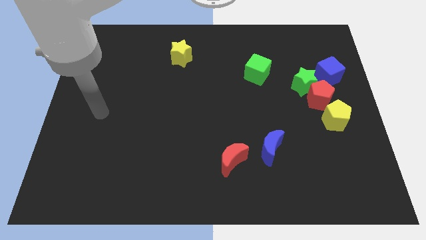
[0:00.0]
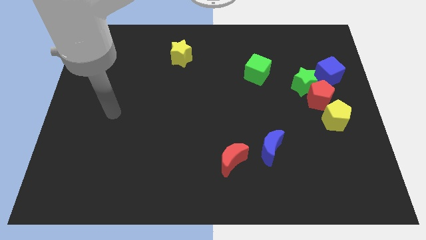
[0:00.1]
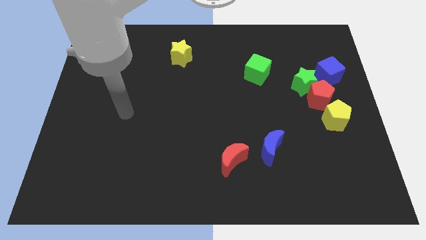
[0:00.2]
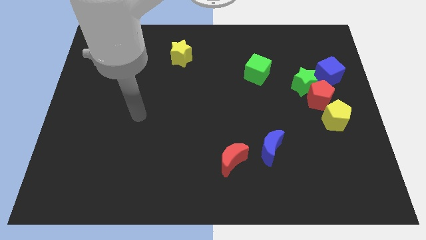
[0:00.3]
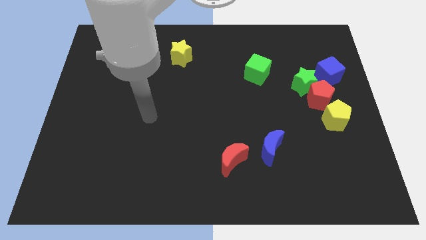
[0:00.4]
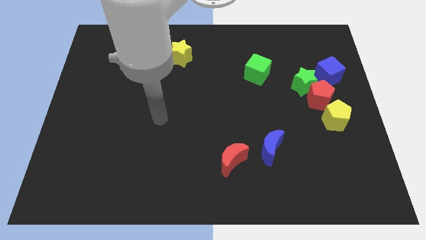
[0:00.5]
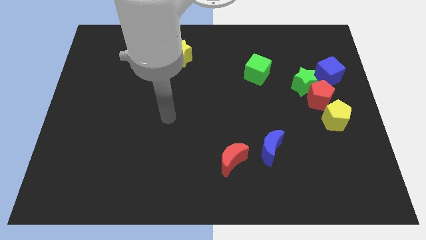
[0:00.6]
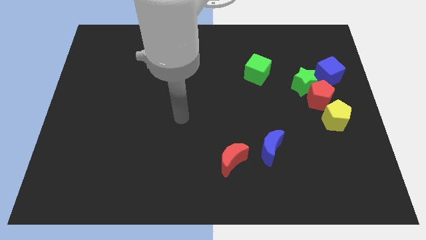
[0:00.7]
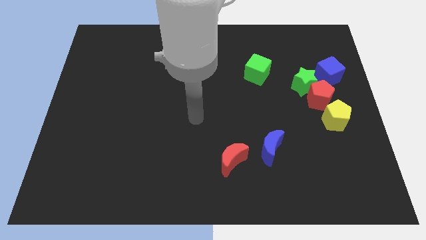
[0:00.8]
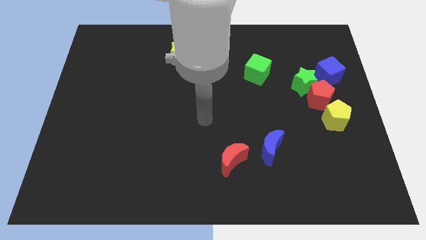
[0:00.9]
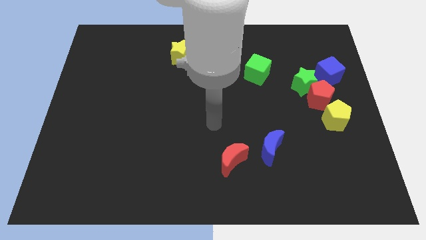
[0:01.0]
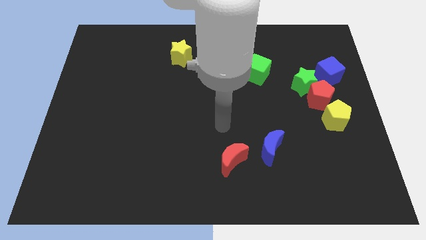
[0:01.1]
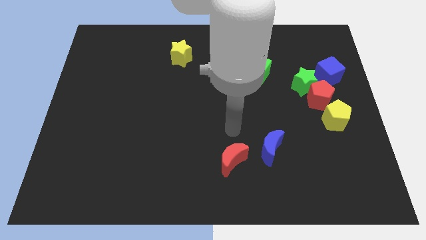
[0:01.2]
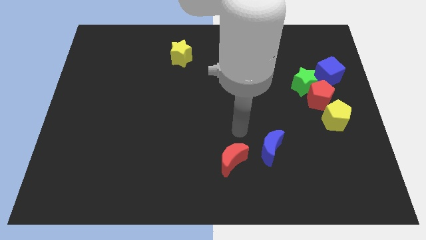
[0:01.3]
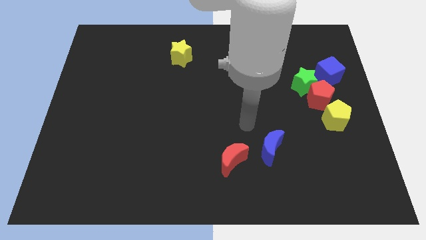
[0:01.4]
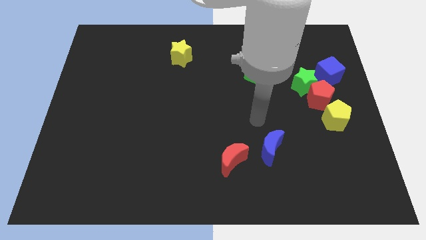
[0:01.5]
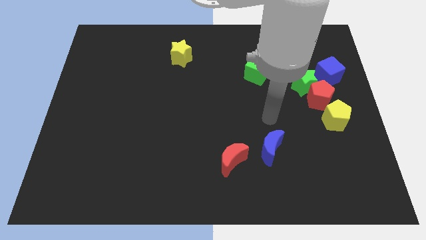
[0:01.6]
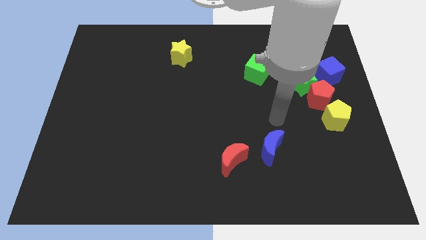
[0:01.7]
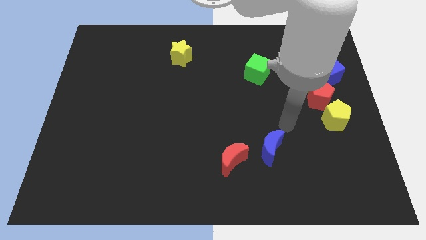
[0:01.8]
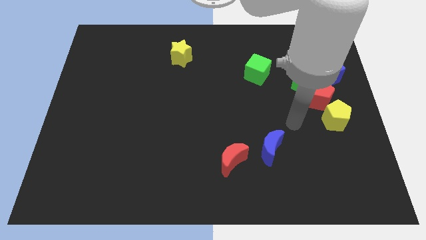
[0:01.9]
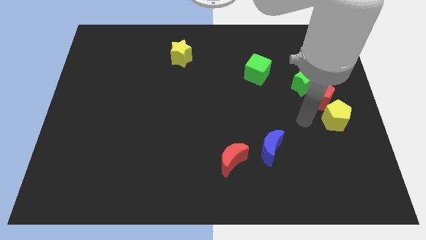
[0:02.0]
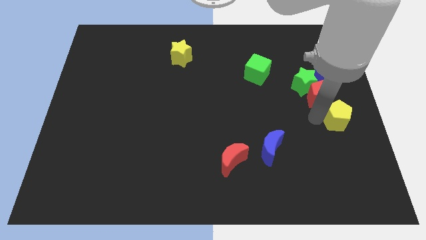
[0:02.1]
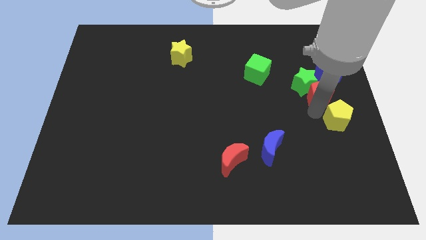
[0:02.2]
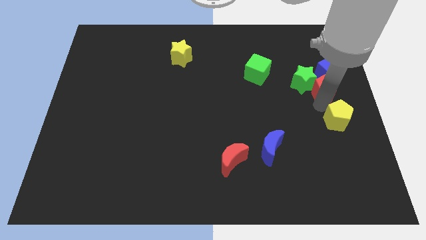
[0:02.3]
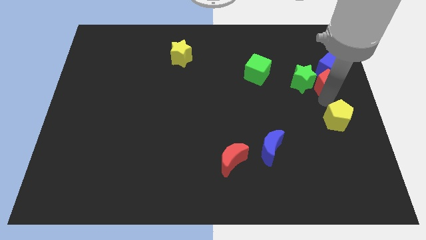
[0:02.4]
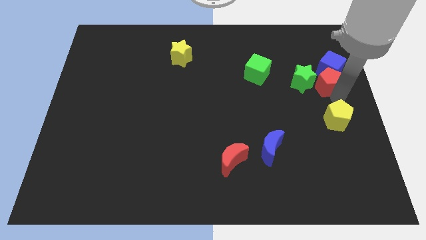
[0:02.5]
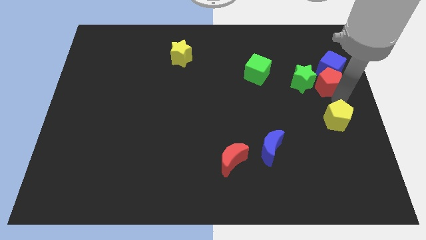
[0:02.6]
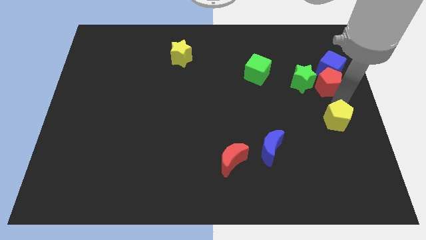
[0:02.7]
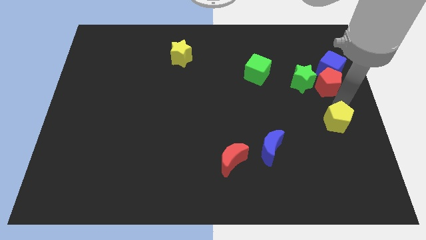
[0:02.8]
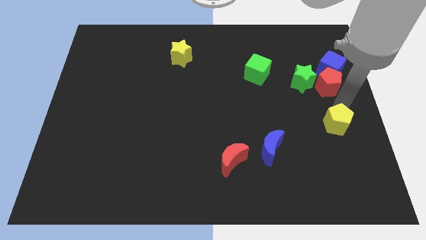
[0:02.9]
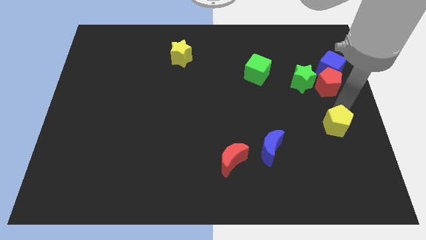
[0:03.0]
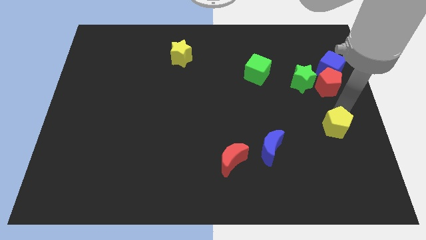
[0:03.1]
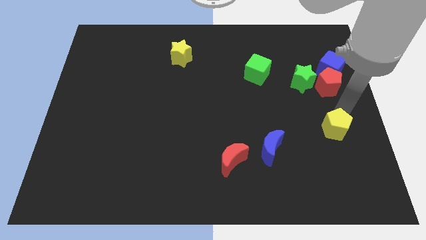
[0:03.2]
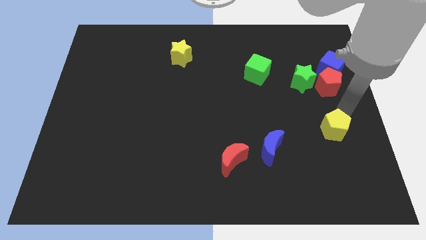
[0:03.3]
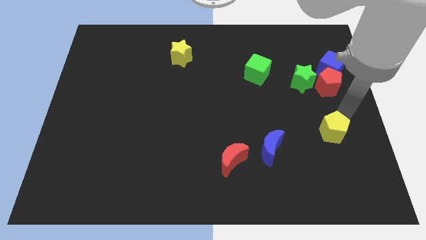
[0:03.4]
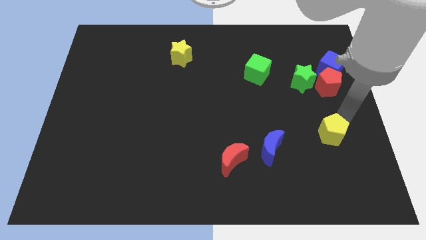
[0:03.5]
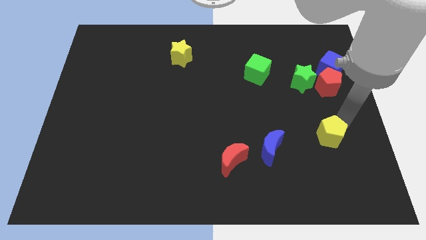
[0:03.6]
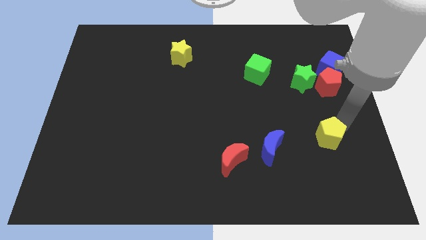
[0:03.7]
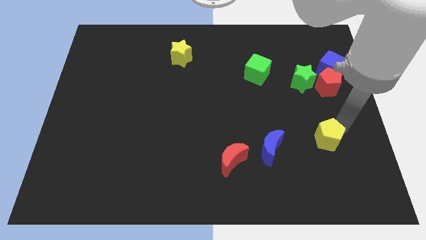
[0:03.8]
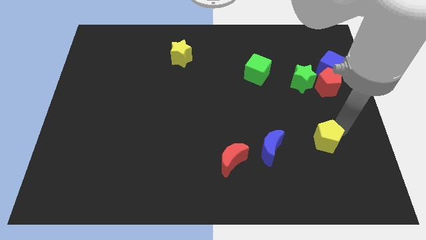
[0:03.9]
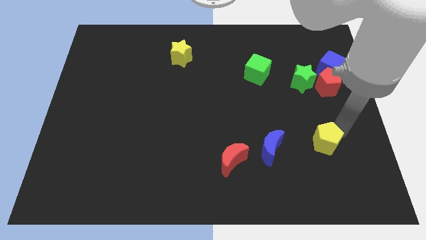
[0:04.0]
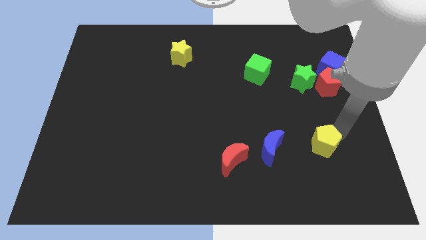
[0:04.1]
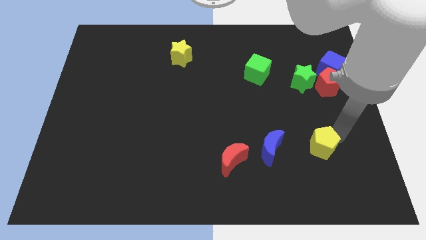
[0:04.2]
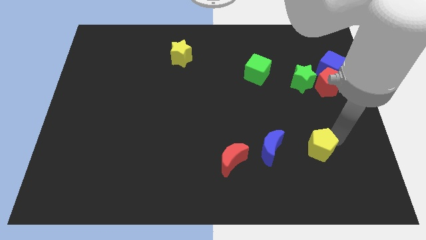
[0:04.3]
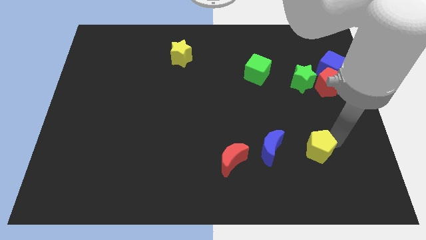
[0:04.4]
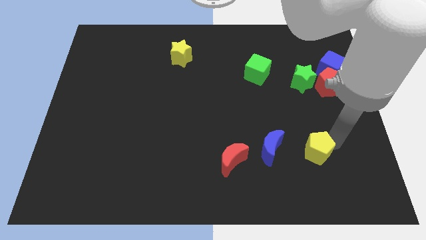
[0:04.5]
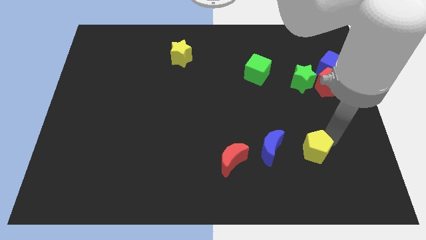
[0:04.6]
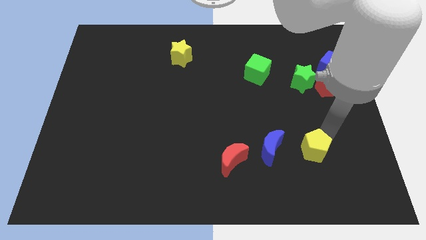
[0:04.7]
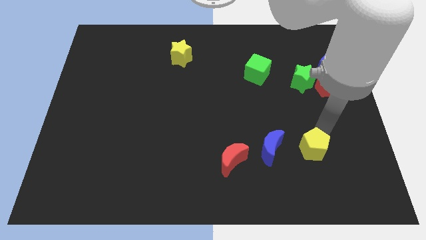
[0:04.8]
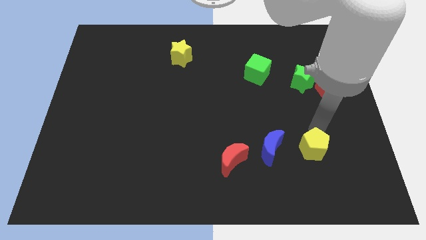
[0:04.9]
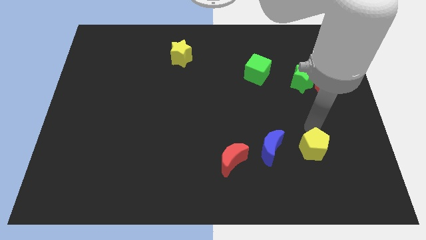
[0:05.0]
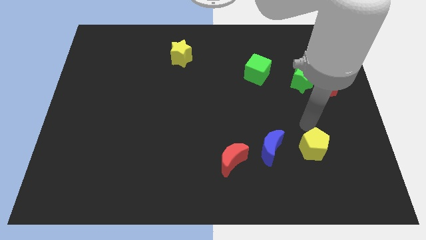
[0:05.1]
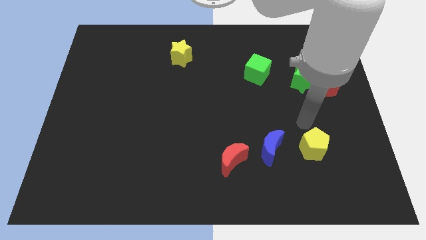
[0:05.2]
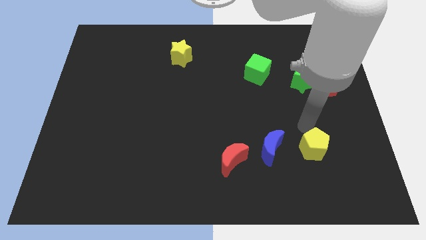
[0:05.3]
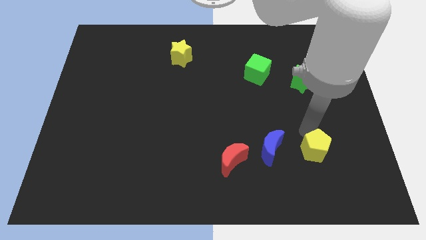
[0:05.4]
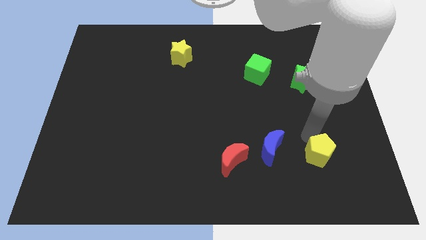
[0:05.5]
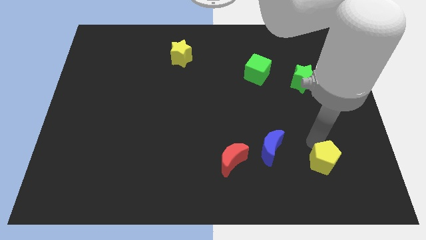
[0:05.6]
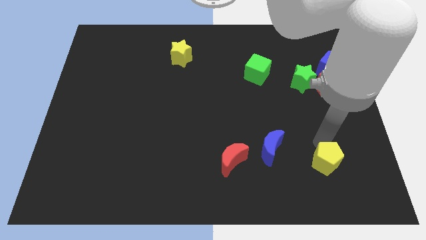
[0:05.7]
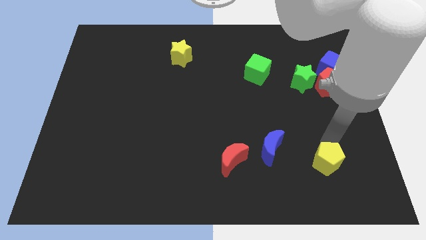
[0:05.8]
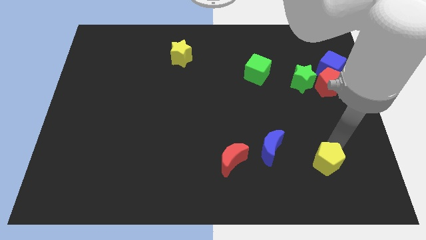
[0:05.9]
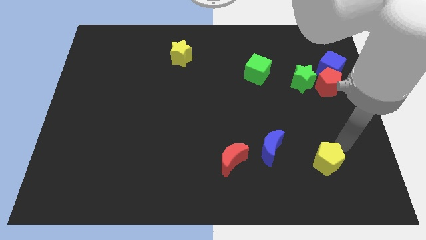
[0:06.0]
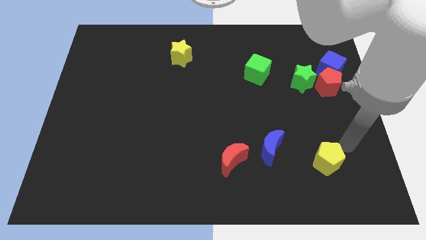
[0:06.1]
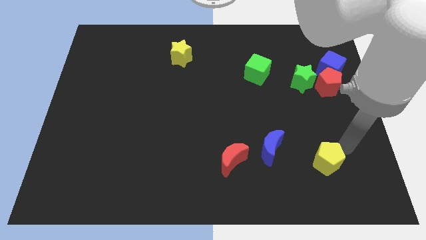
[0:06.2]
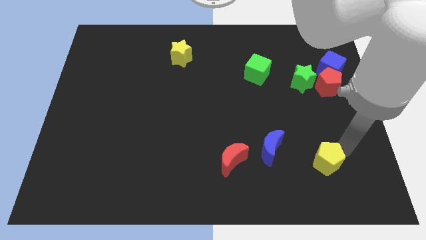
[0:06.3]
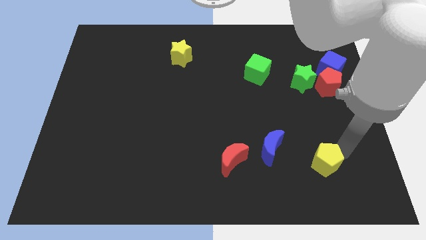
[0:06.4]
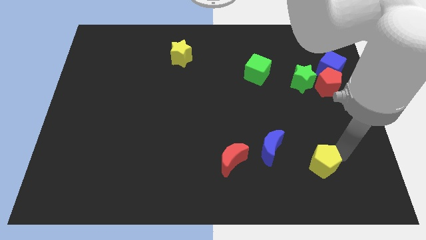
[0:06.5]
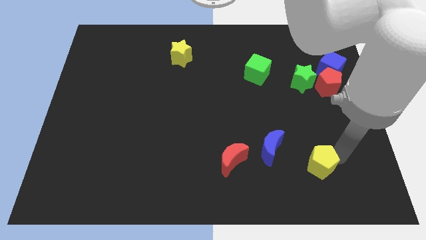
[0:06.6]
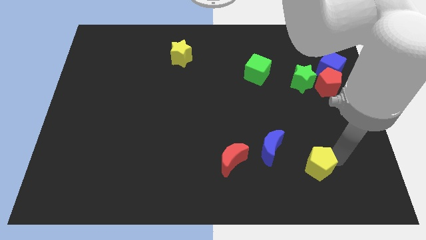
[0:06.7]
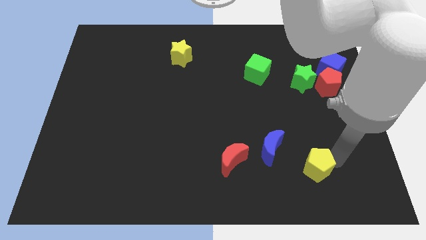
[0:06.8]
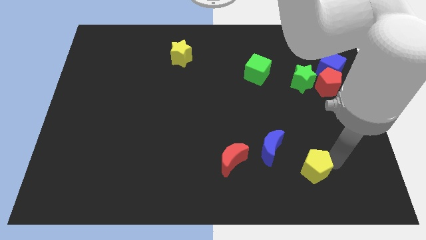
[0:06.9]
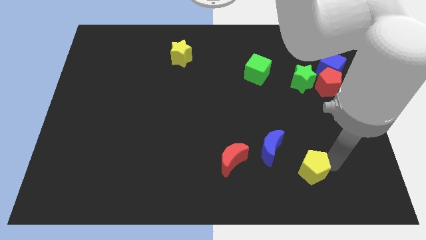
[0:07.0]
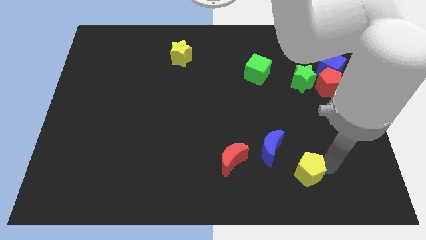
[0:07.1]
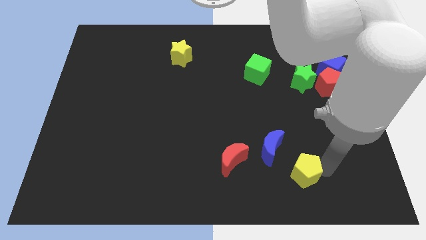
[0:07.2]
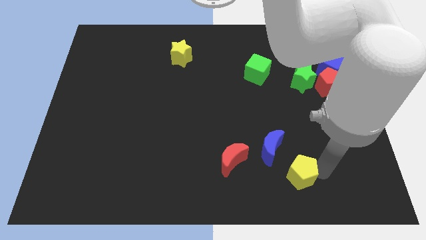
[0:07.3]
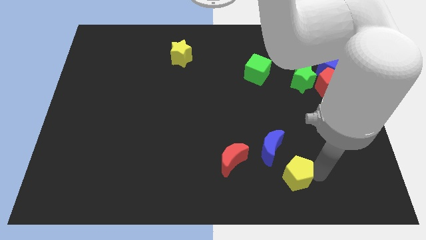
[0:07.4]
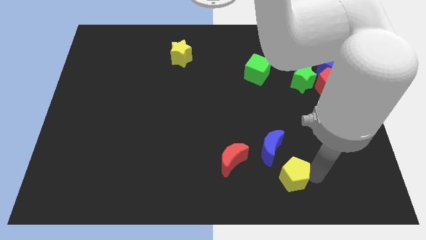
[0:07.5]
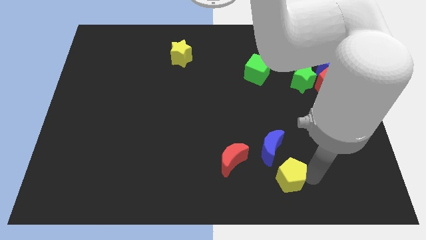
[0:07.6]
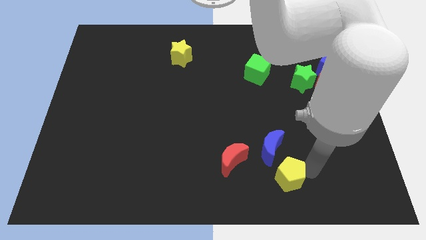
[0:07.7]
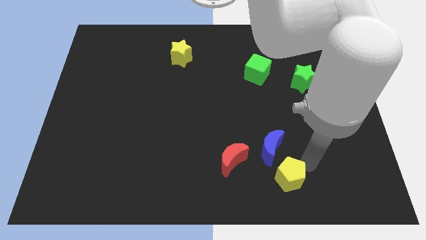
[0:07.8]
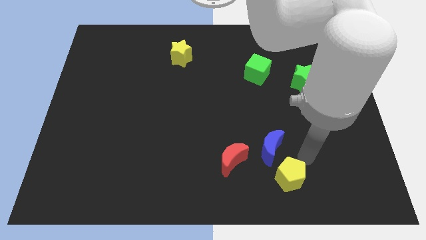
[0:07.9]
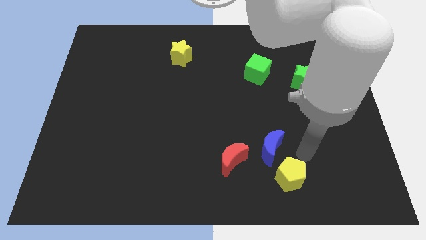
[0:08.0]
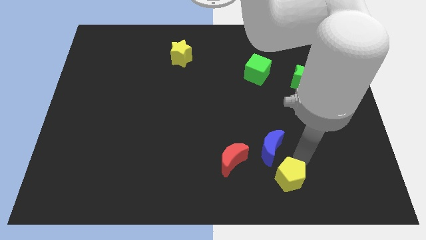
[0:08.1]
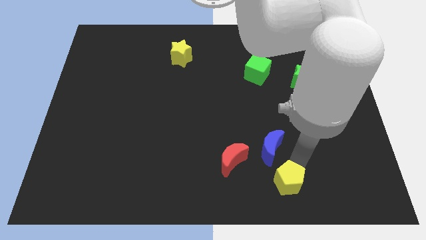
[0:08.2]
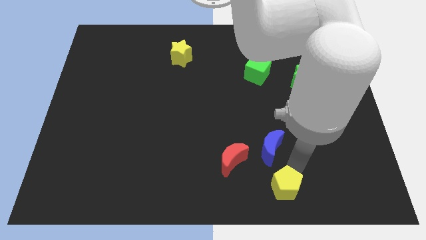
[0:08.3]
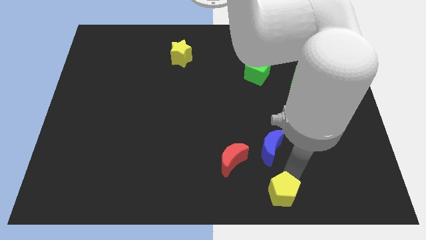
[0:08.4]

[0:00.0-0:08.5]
put the yellow pentagon to the bottom side
